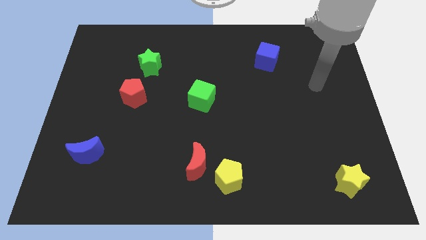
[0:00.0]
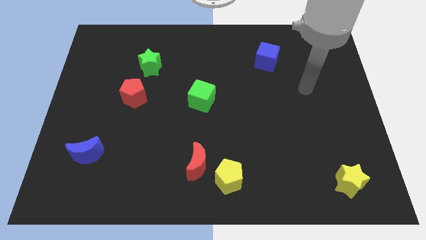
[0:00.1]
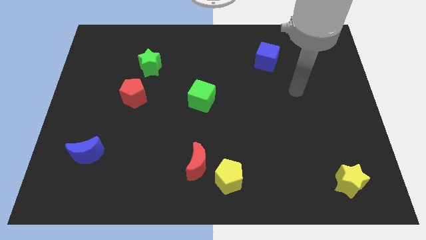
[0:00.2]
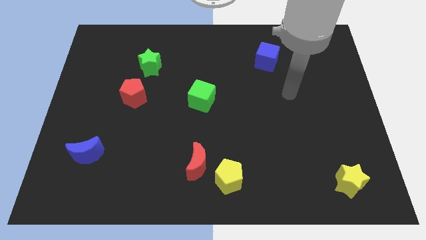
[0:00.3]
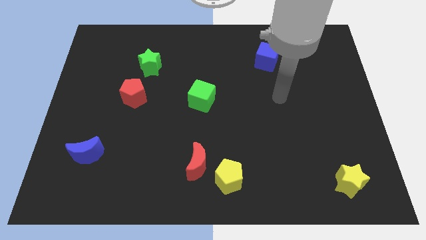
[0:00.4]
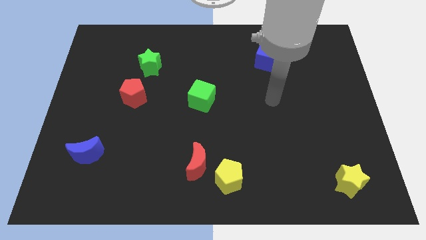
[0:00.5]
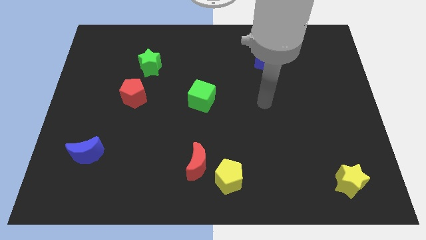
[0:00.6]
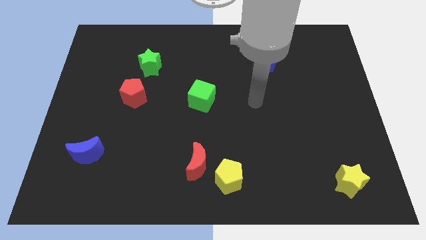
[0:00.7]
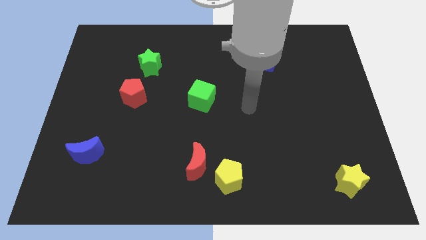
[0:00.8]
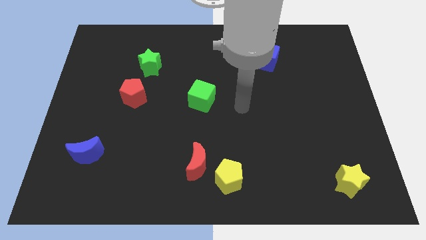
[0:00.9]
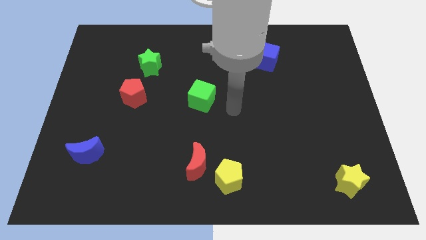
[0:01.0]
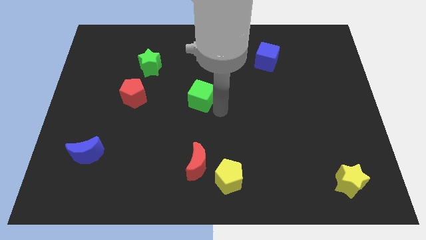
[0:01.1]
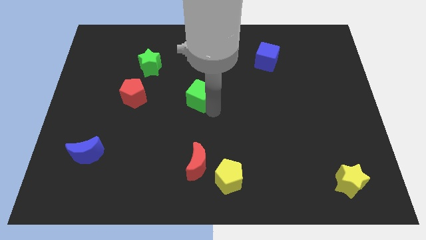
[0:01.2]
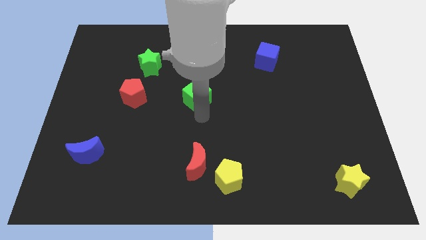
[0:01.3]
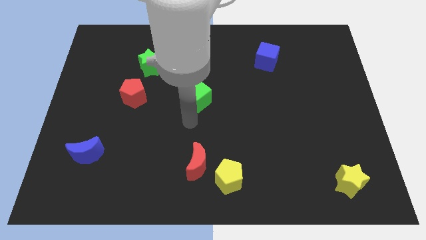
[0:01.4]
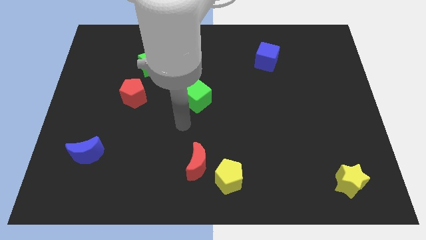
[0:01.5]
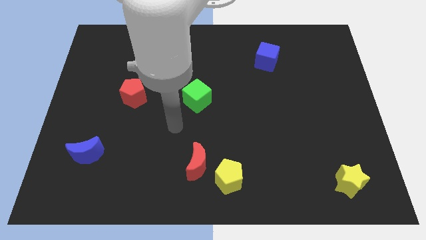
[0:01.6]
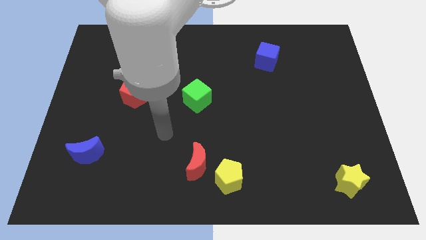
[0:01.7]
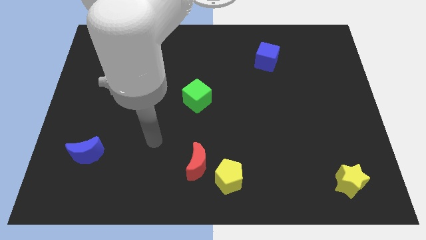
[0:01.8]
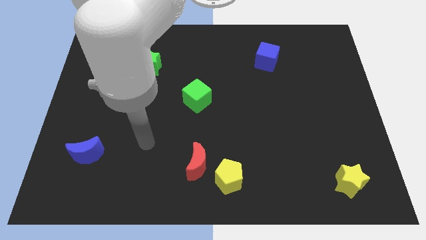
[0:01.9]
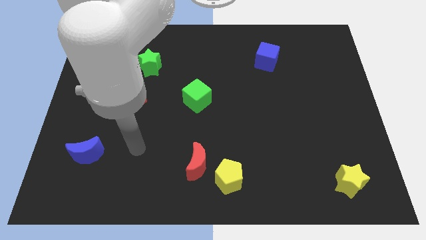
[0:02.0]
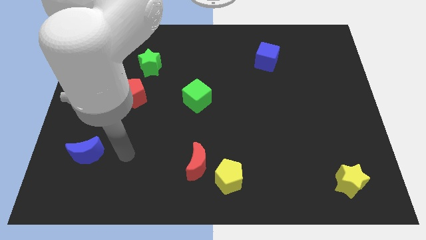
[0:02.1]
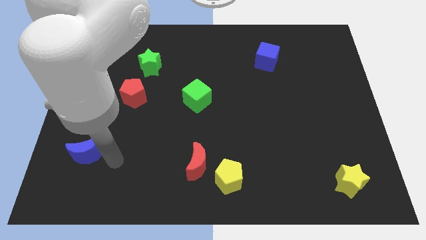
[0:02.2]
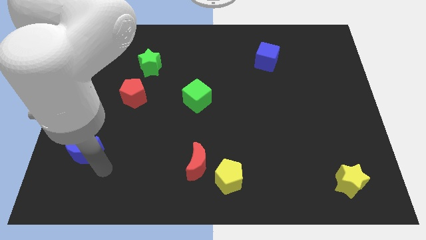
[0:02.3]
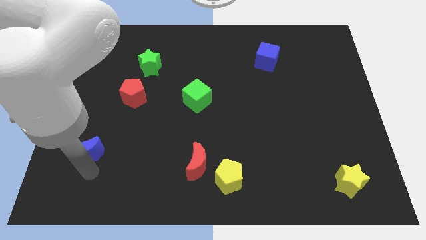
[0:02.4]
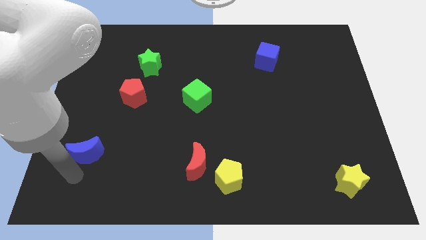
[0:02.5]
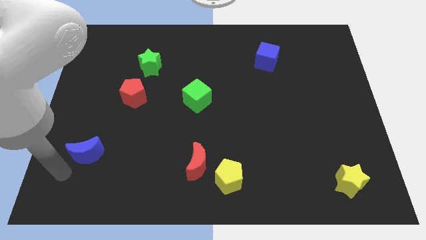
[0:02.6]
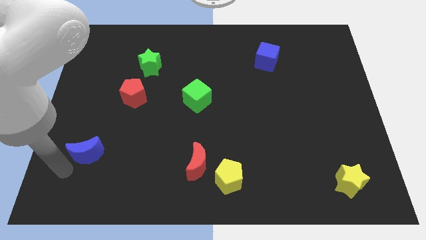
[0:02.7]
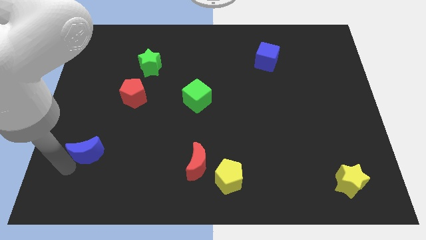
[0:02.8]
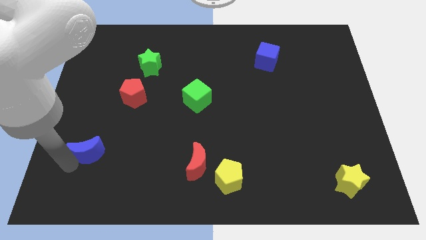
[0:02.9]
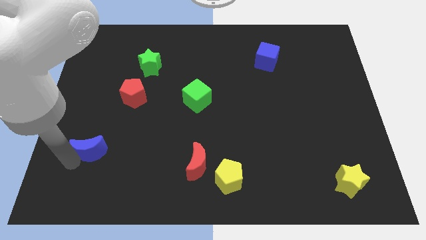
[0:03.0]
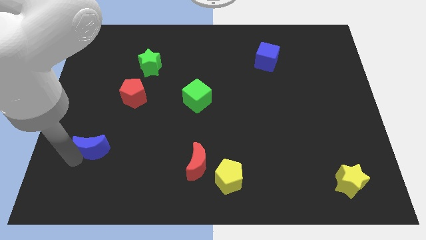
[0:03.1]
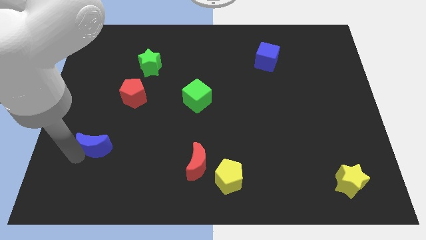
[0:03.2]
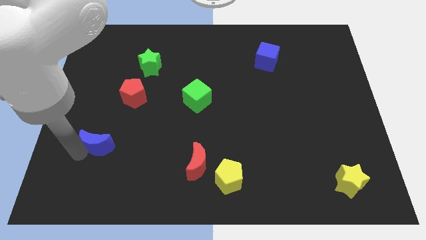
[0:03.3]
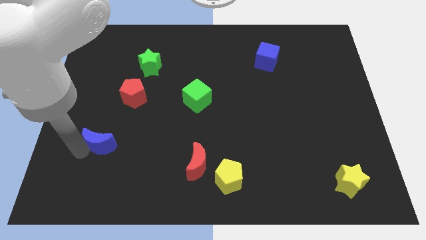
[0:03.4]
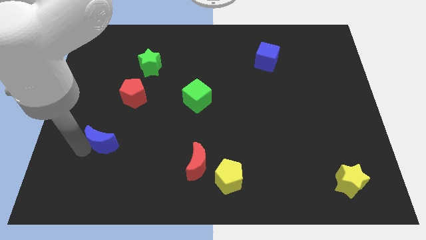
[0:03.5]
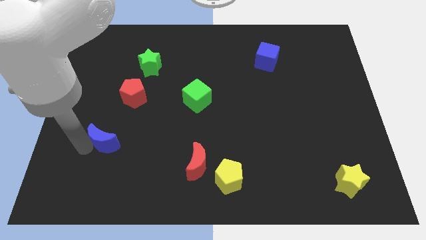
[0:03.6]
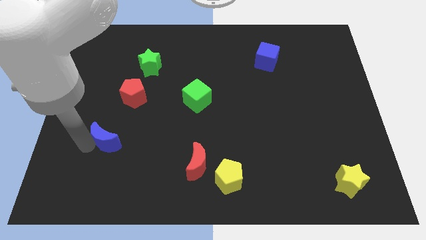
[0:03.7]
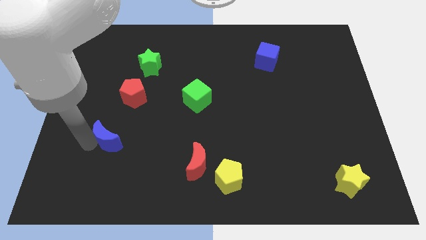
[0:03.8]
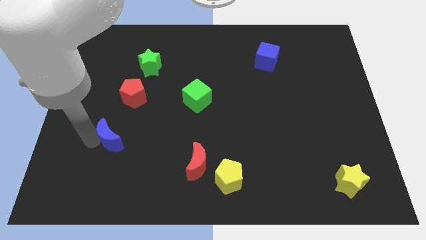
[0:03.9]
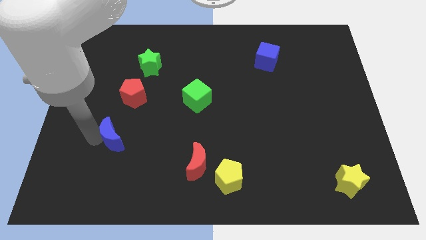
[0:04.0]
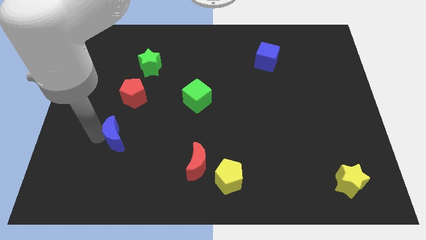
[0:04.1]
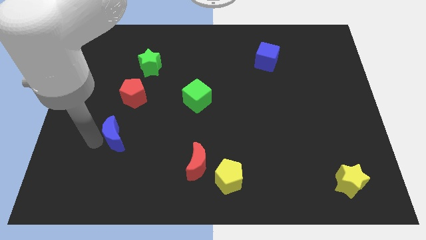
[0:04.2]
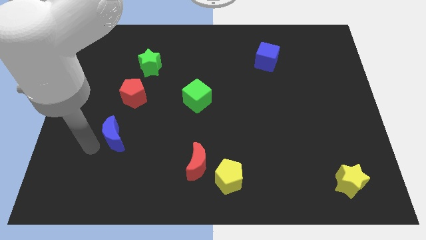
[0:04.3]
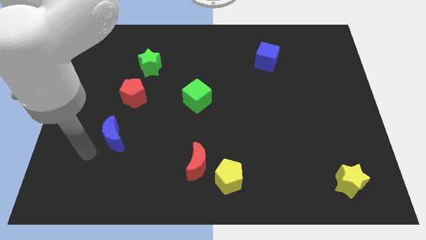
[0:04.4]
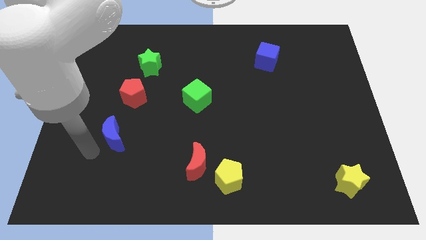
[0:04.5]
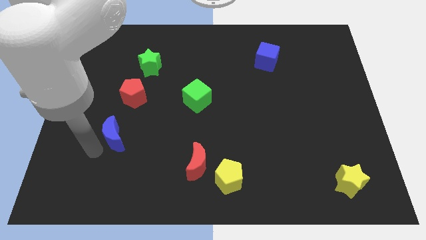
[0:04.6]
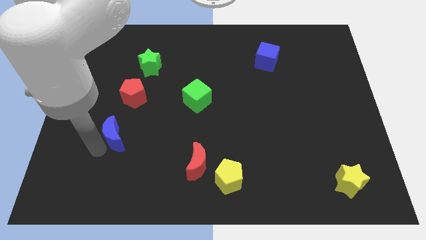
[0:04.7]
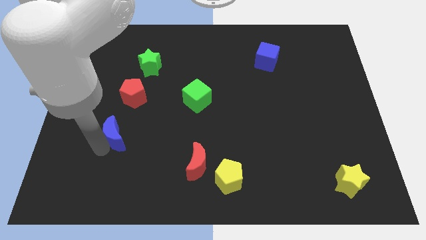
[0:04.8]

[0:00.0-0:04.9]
slightly slide the blue moon up and right

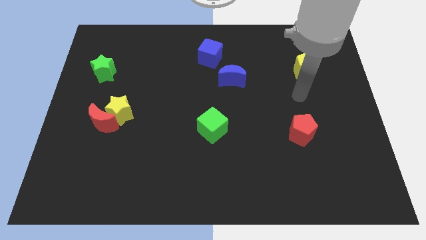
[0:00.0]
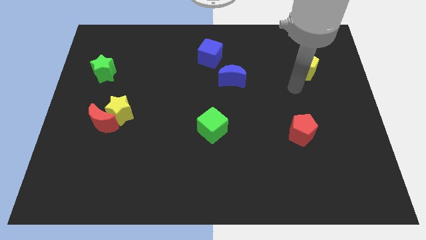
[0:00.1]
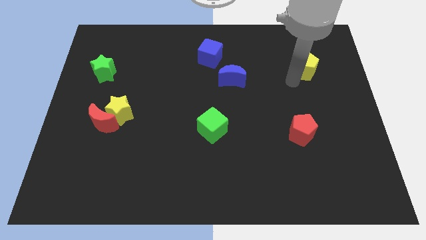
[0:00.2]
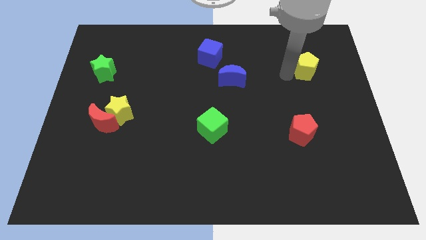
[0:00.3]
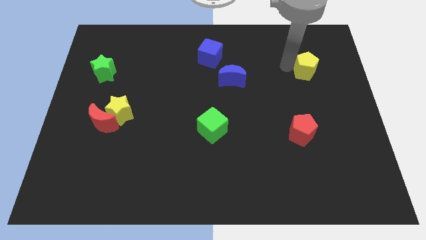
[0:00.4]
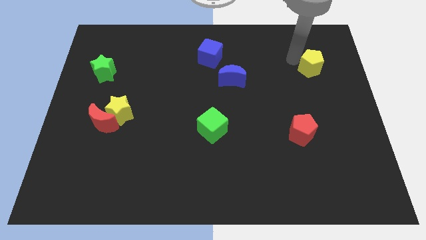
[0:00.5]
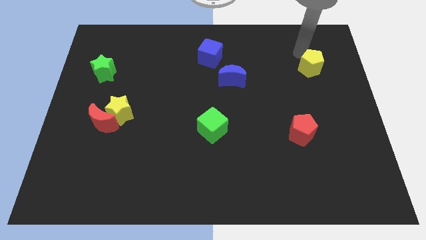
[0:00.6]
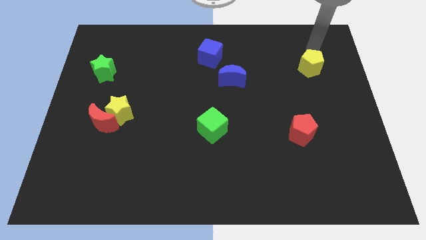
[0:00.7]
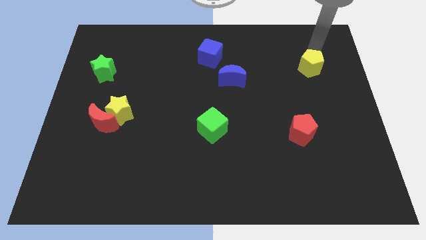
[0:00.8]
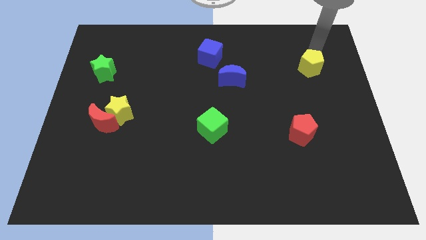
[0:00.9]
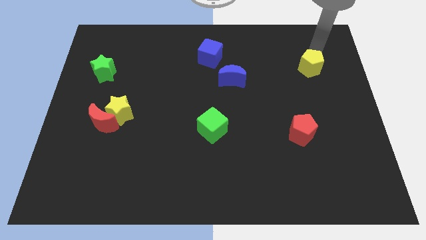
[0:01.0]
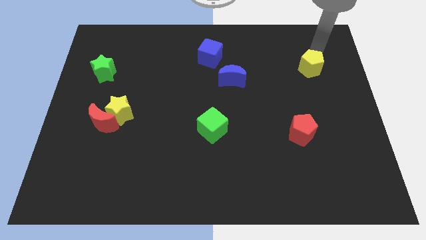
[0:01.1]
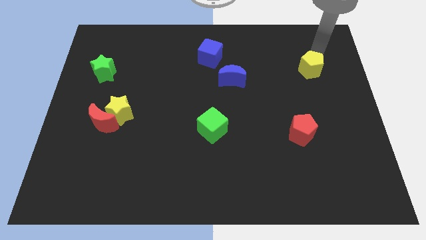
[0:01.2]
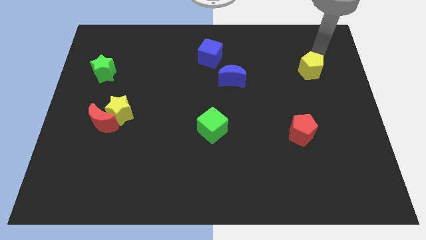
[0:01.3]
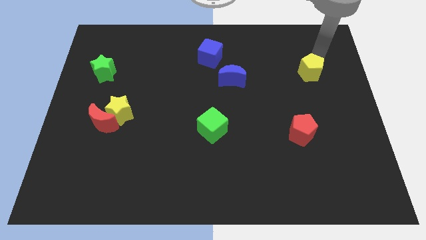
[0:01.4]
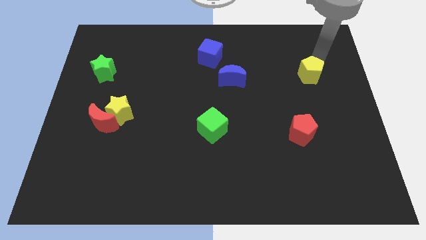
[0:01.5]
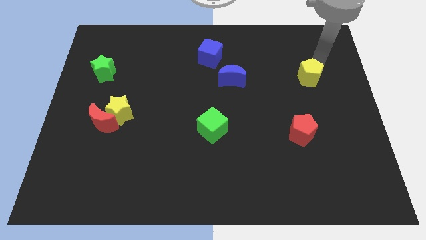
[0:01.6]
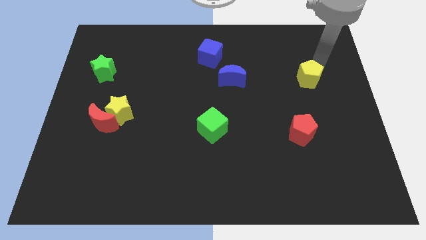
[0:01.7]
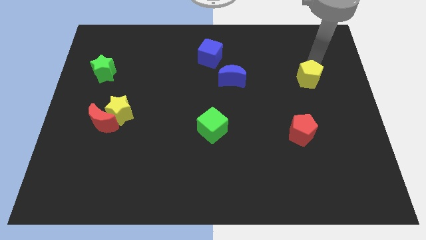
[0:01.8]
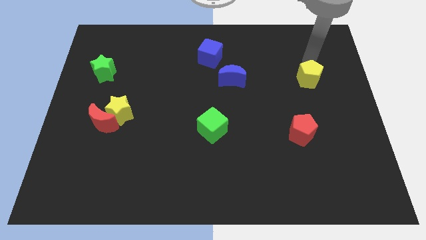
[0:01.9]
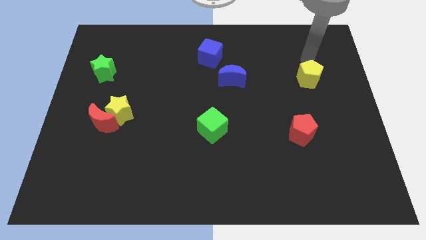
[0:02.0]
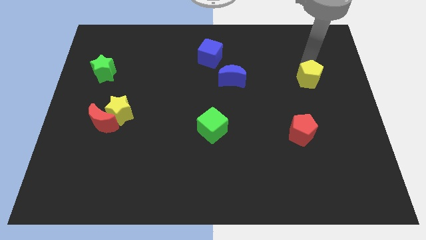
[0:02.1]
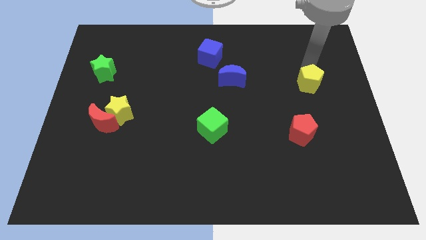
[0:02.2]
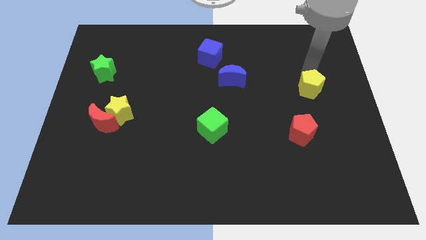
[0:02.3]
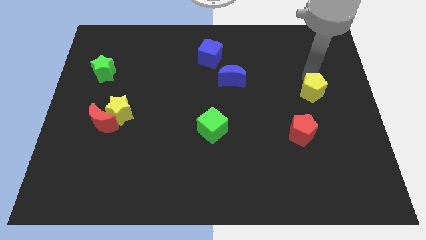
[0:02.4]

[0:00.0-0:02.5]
push the yellow pentagon a little down

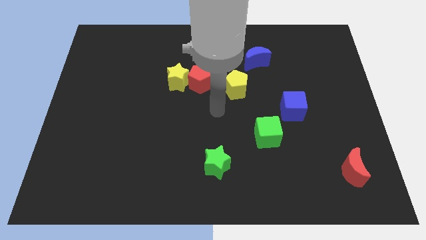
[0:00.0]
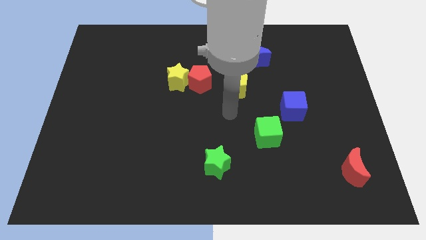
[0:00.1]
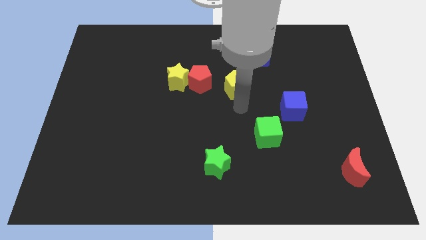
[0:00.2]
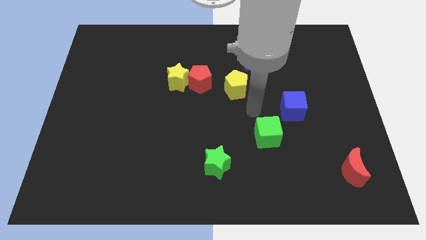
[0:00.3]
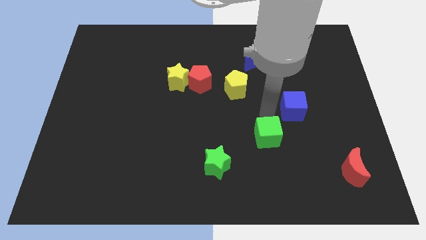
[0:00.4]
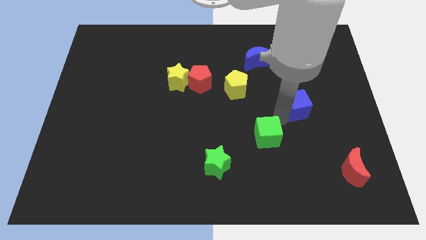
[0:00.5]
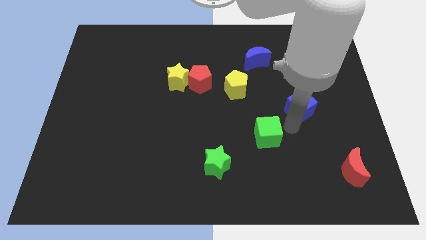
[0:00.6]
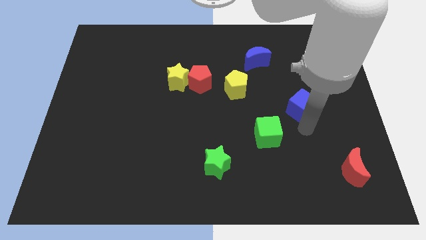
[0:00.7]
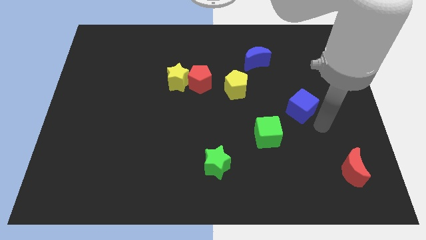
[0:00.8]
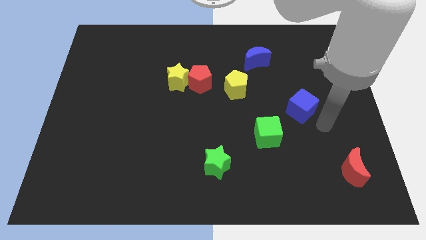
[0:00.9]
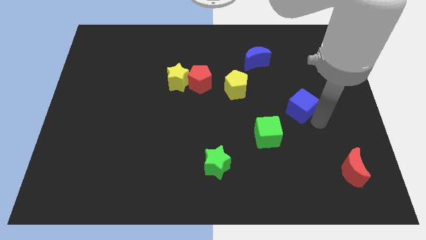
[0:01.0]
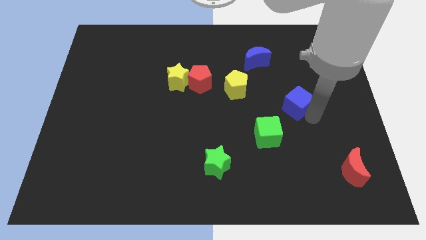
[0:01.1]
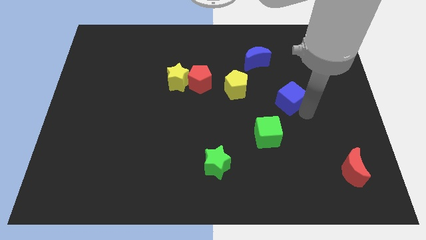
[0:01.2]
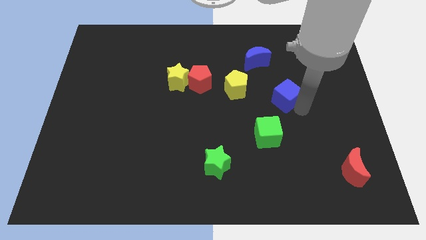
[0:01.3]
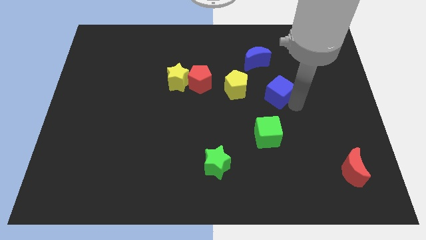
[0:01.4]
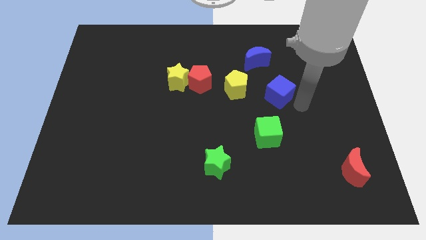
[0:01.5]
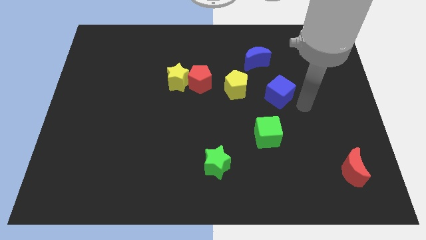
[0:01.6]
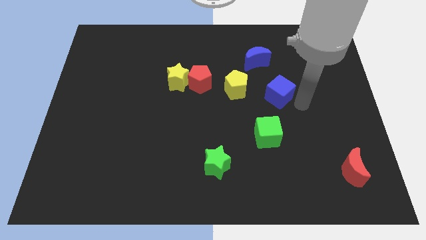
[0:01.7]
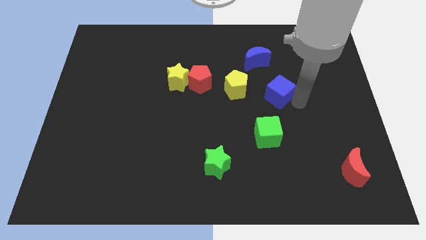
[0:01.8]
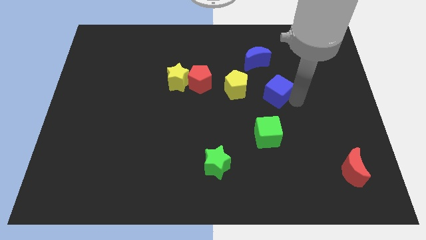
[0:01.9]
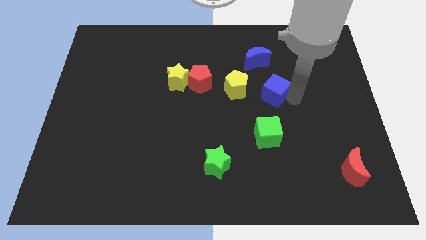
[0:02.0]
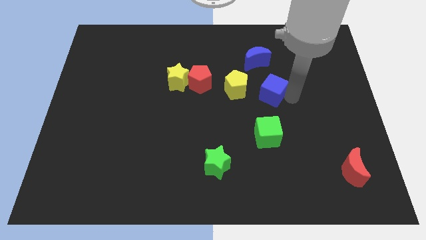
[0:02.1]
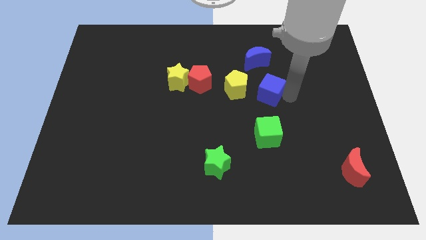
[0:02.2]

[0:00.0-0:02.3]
push the blue cube somewhat upwards and then left
